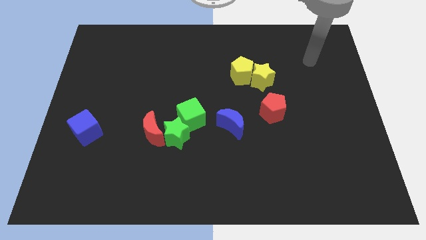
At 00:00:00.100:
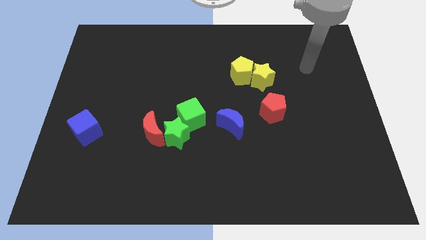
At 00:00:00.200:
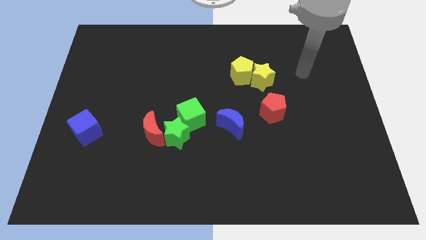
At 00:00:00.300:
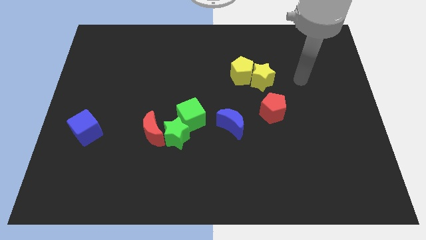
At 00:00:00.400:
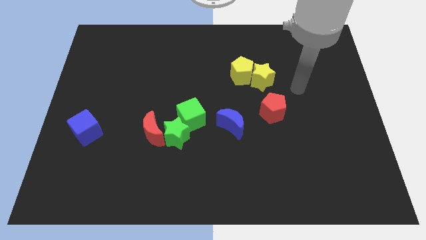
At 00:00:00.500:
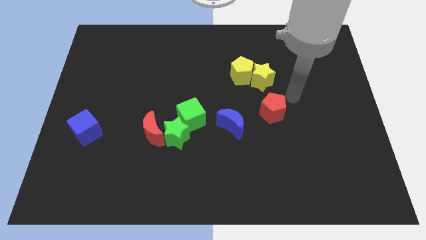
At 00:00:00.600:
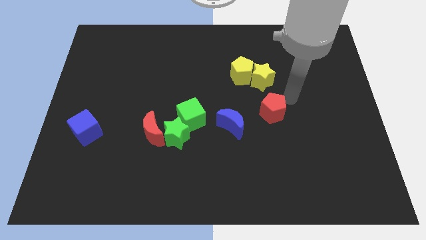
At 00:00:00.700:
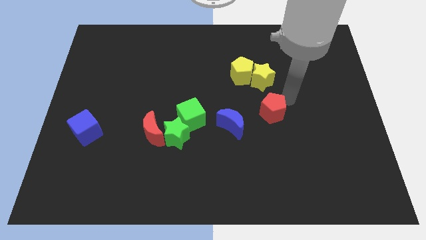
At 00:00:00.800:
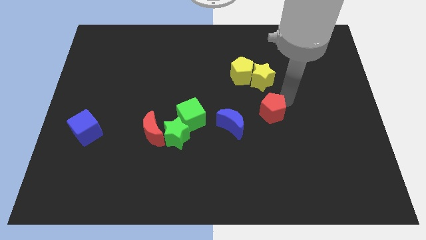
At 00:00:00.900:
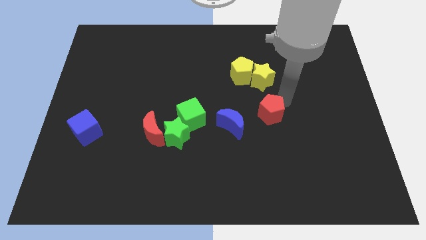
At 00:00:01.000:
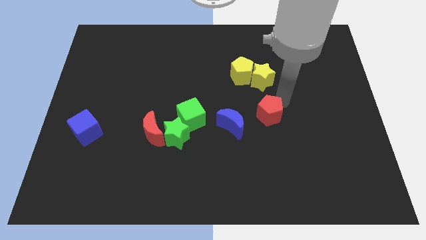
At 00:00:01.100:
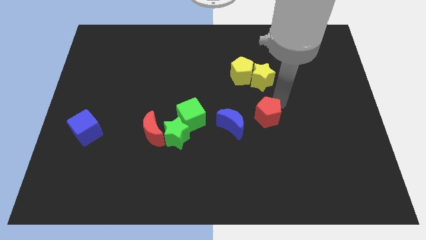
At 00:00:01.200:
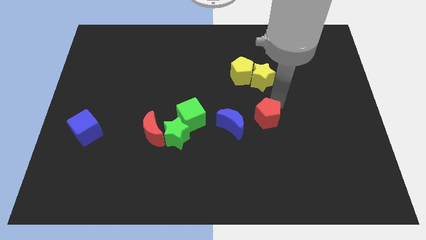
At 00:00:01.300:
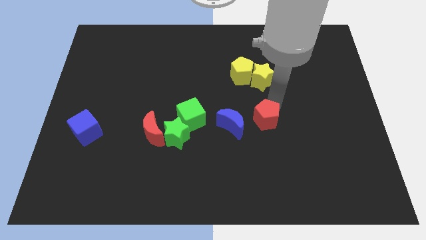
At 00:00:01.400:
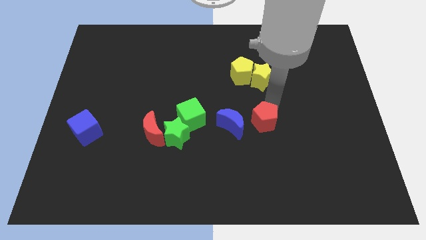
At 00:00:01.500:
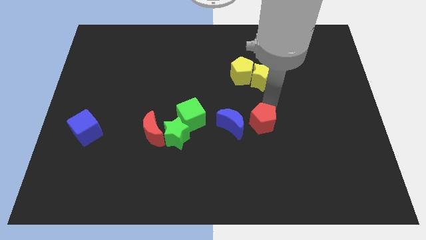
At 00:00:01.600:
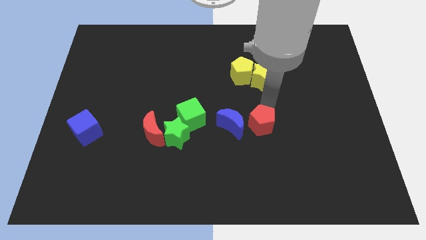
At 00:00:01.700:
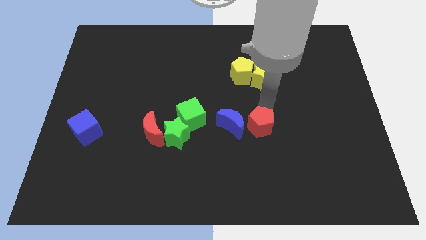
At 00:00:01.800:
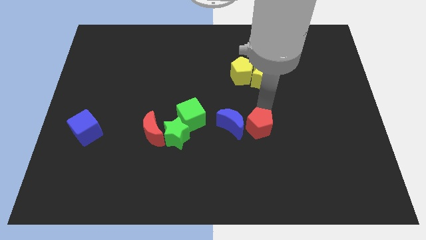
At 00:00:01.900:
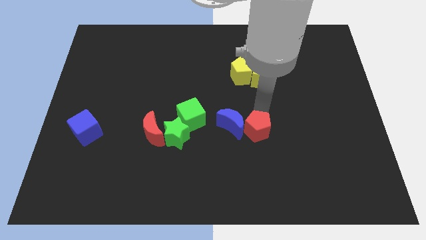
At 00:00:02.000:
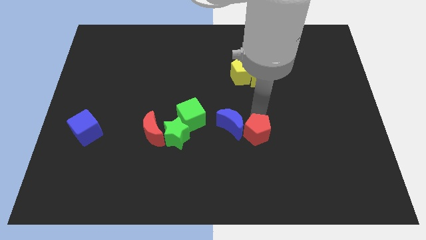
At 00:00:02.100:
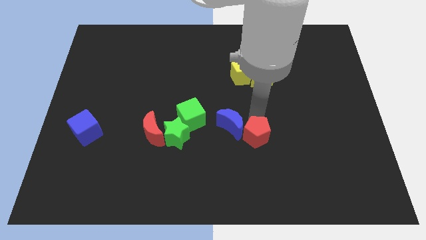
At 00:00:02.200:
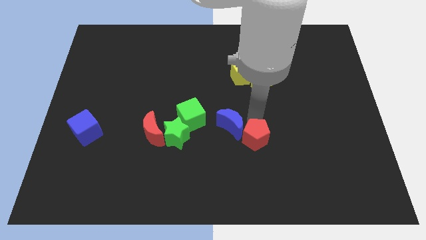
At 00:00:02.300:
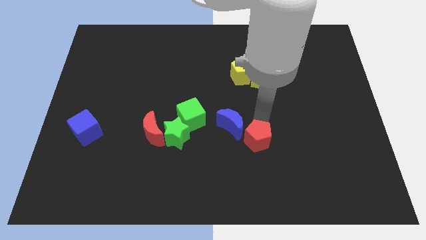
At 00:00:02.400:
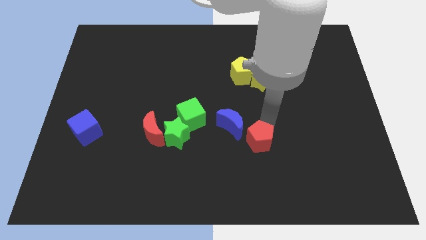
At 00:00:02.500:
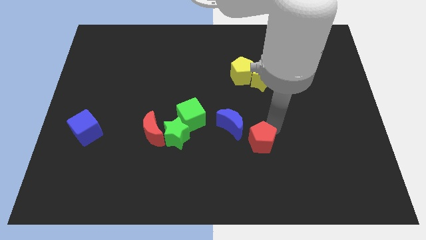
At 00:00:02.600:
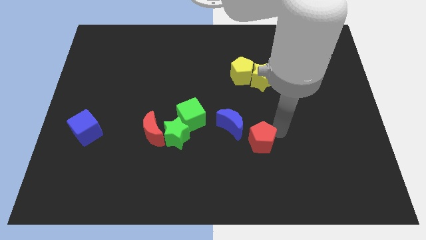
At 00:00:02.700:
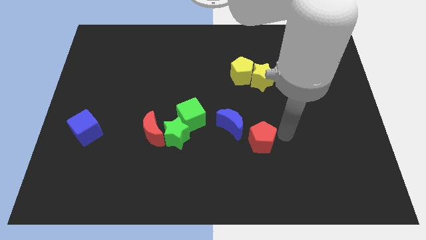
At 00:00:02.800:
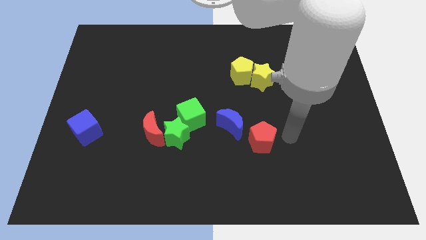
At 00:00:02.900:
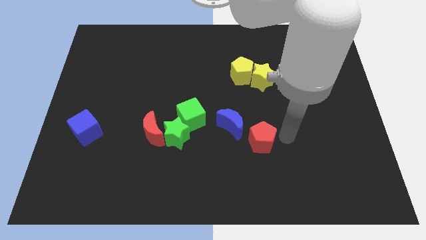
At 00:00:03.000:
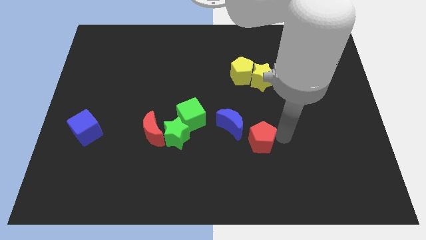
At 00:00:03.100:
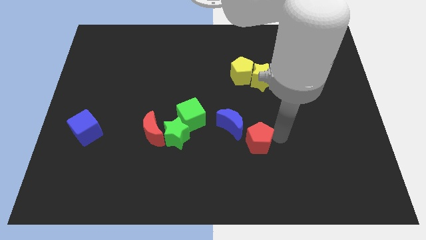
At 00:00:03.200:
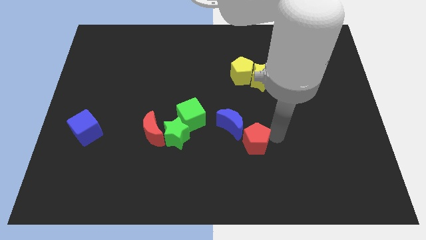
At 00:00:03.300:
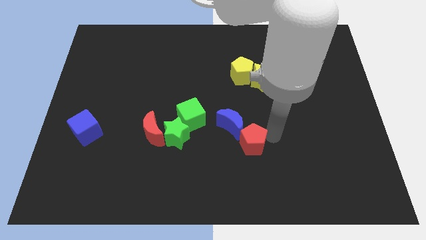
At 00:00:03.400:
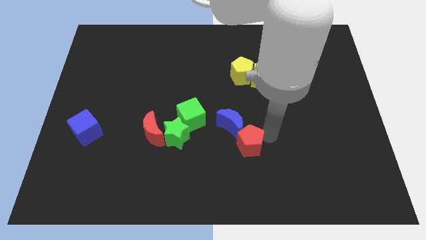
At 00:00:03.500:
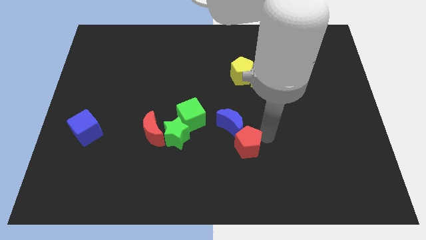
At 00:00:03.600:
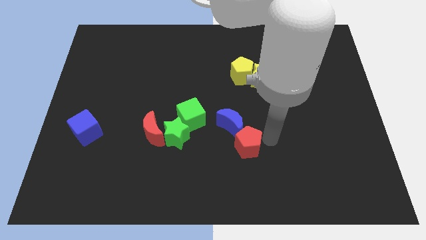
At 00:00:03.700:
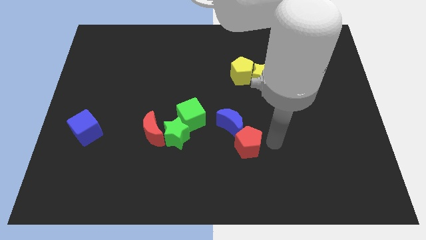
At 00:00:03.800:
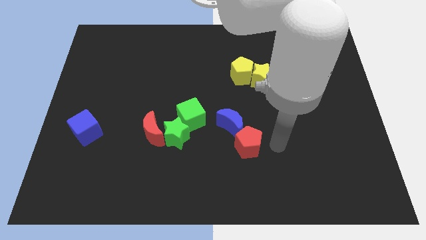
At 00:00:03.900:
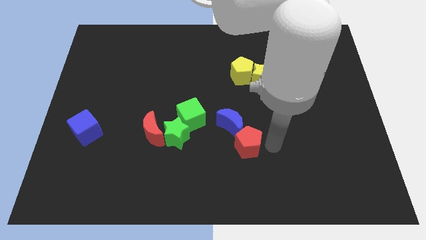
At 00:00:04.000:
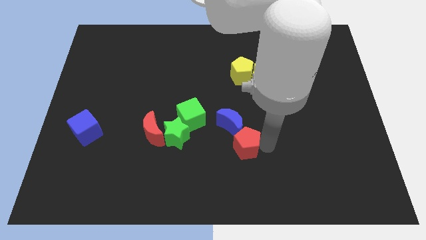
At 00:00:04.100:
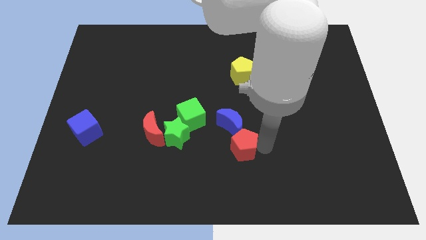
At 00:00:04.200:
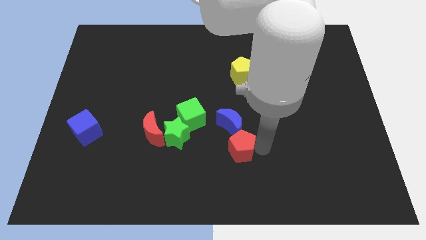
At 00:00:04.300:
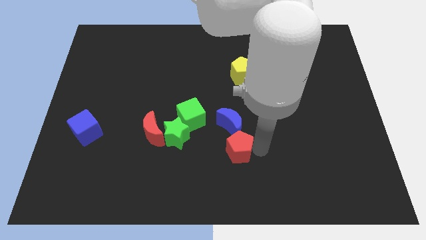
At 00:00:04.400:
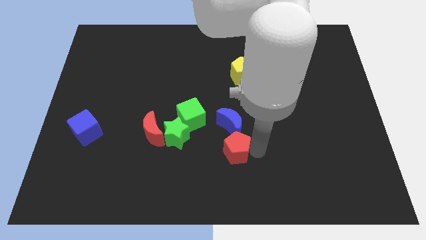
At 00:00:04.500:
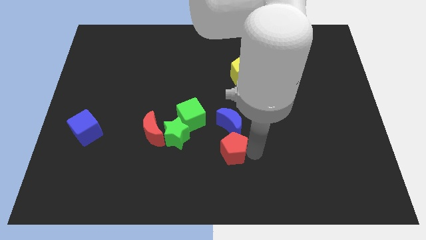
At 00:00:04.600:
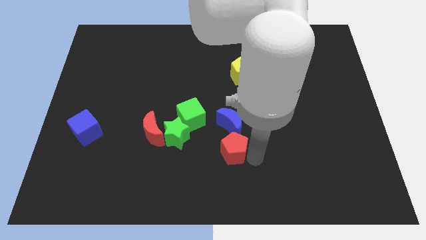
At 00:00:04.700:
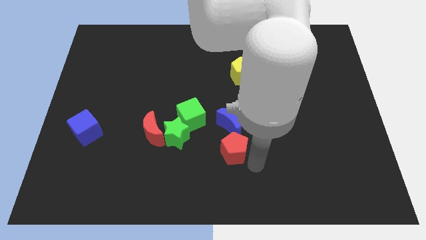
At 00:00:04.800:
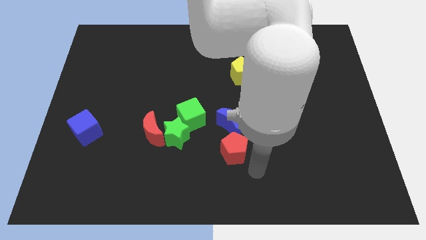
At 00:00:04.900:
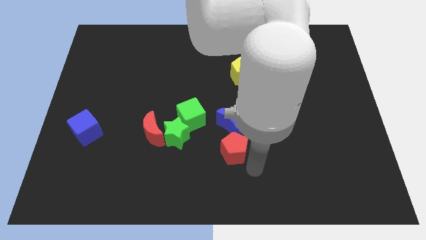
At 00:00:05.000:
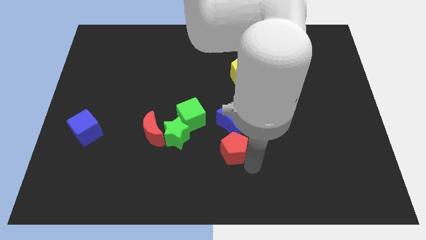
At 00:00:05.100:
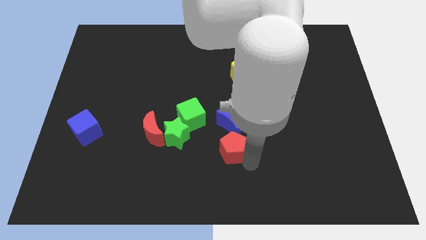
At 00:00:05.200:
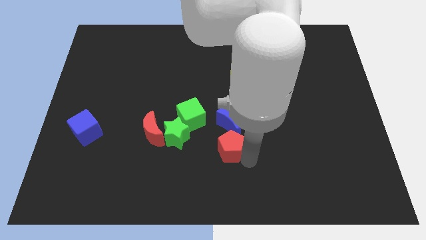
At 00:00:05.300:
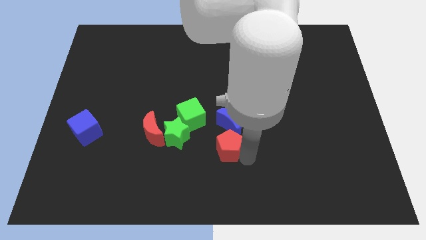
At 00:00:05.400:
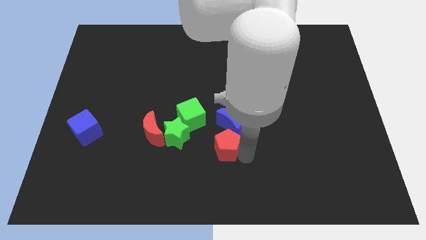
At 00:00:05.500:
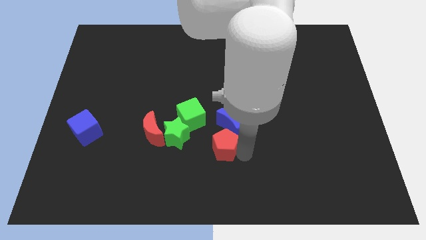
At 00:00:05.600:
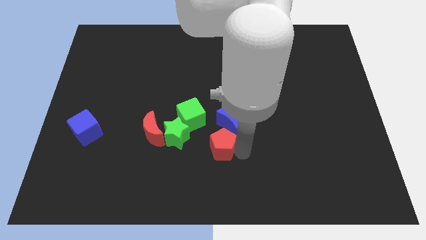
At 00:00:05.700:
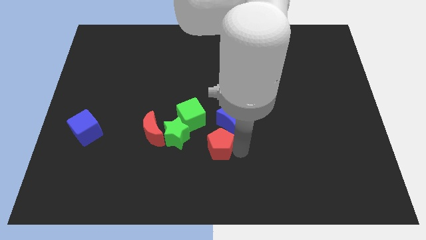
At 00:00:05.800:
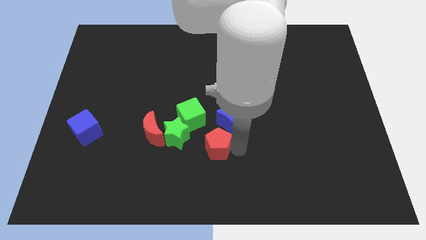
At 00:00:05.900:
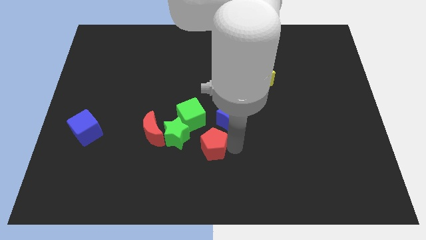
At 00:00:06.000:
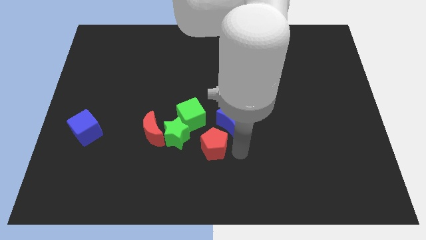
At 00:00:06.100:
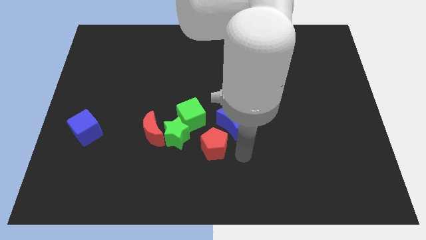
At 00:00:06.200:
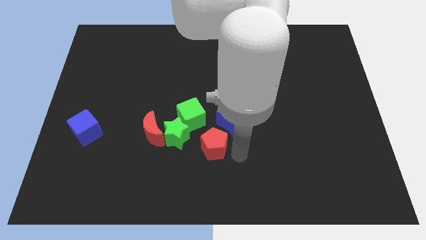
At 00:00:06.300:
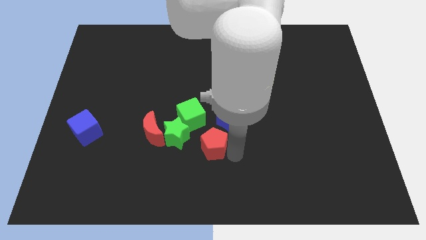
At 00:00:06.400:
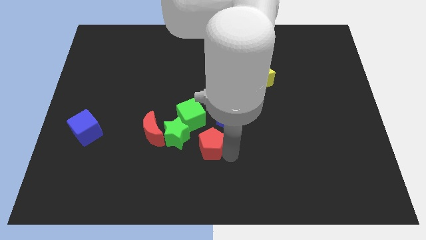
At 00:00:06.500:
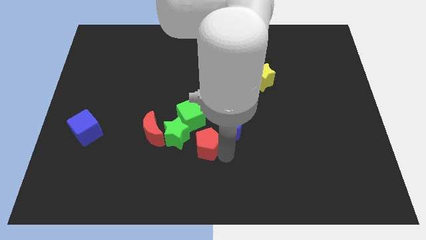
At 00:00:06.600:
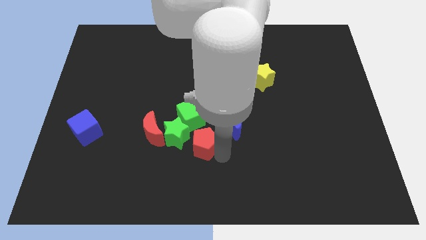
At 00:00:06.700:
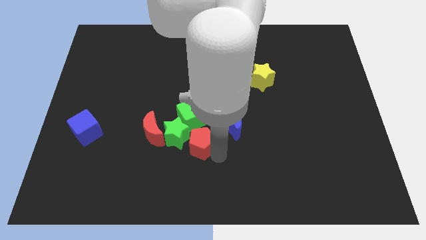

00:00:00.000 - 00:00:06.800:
put the red pentagon towards the green star

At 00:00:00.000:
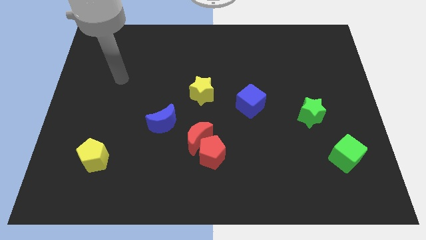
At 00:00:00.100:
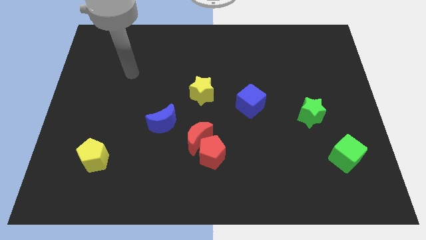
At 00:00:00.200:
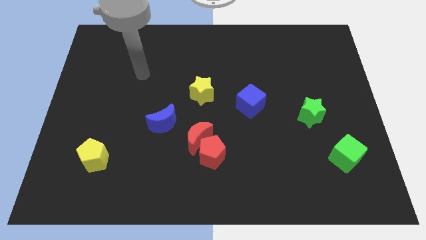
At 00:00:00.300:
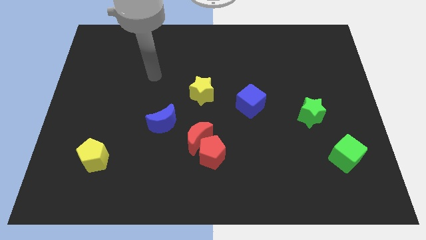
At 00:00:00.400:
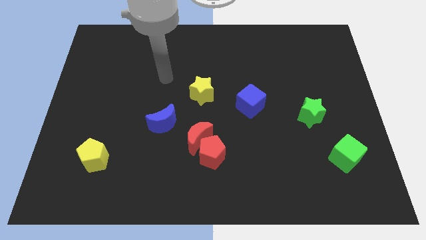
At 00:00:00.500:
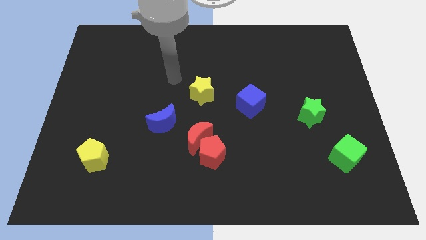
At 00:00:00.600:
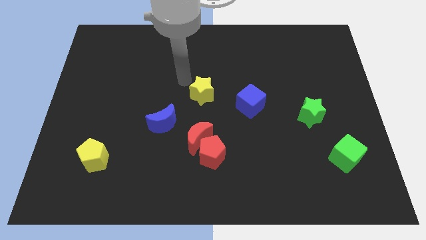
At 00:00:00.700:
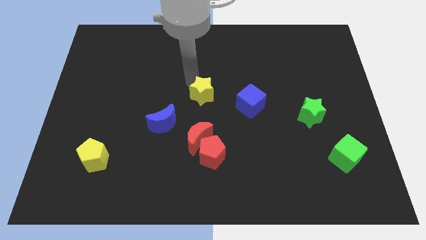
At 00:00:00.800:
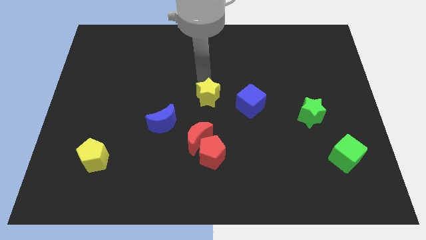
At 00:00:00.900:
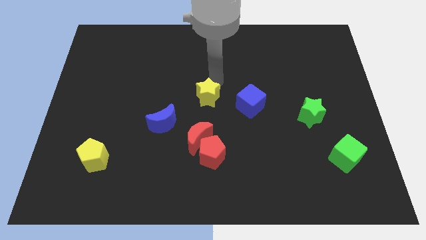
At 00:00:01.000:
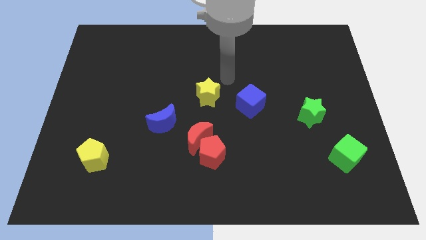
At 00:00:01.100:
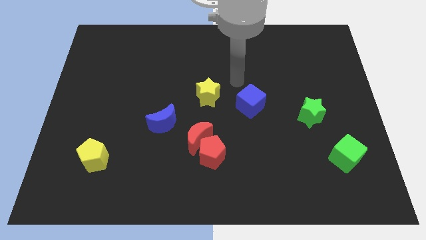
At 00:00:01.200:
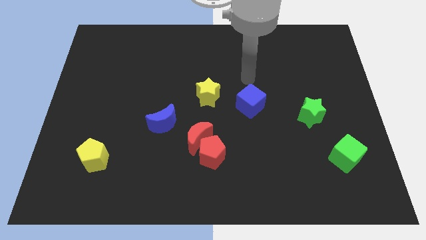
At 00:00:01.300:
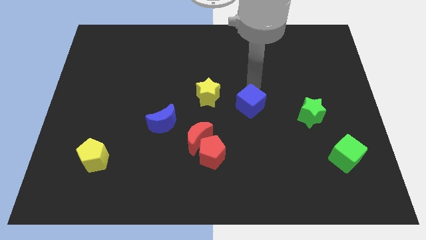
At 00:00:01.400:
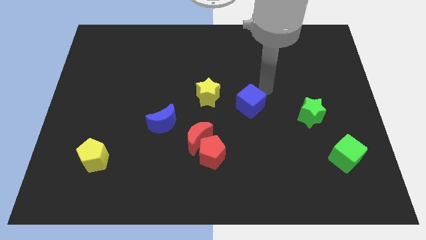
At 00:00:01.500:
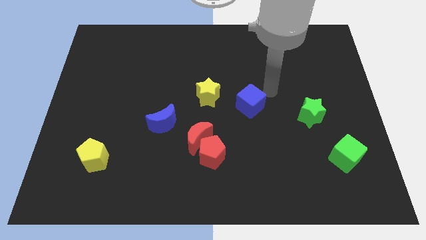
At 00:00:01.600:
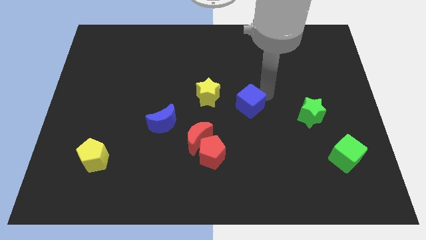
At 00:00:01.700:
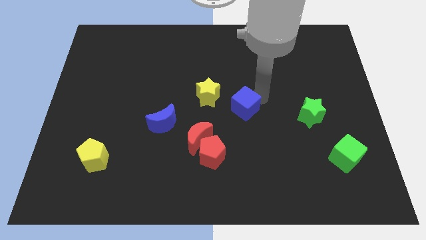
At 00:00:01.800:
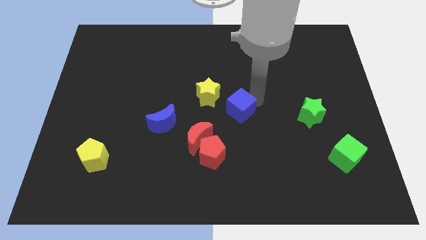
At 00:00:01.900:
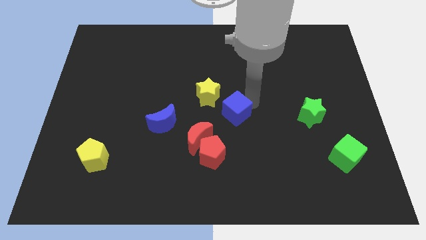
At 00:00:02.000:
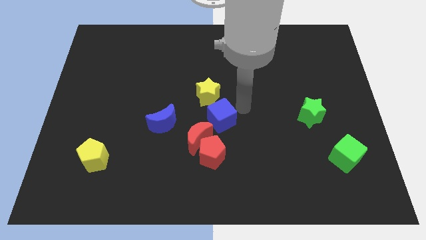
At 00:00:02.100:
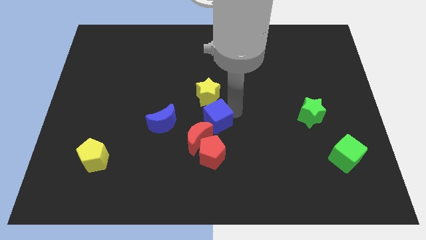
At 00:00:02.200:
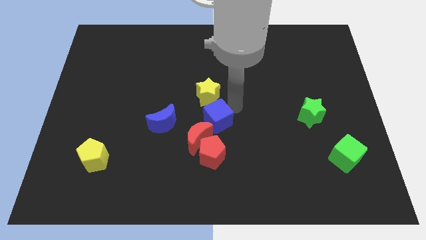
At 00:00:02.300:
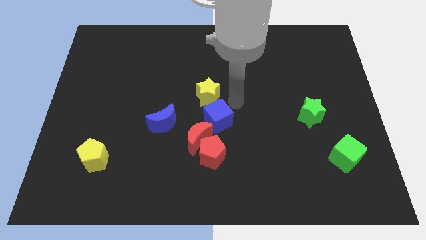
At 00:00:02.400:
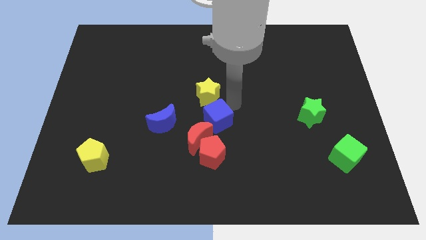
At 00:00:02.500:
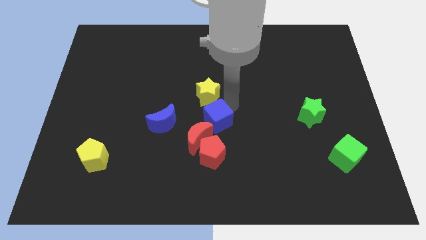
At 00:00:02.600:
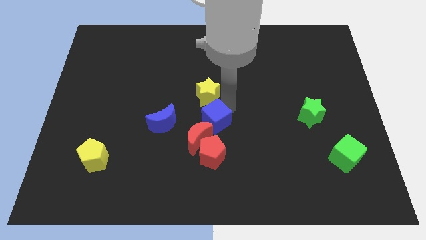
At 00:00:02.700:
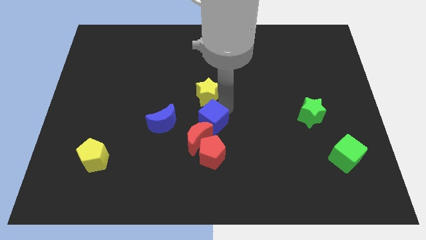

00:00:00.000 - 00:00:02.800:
slide the blue cube next to the red moon
